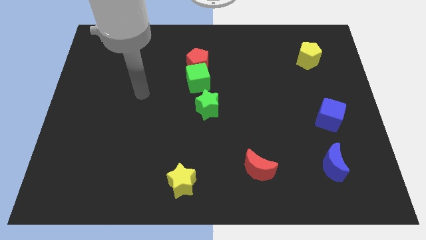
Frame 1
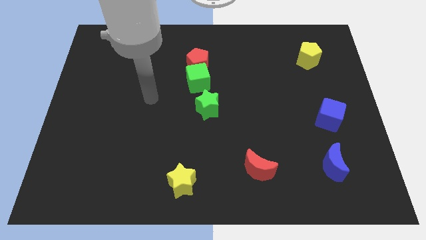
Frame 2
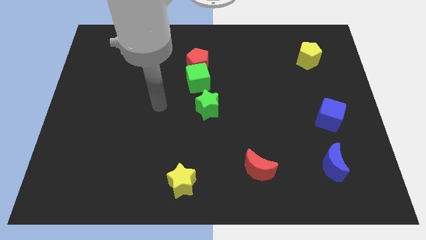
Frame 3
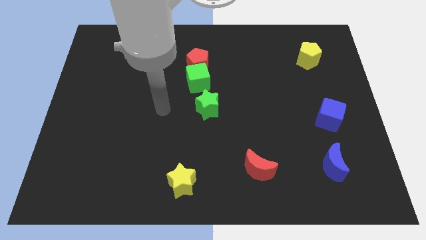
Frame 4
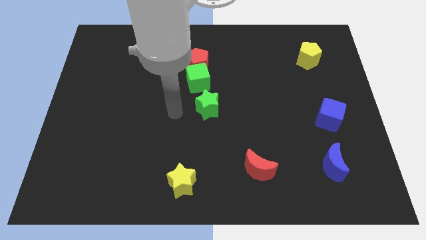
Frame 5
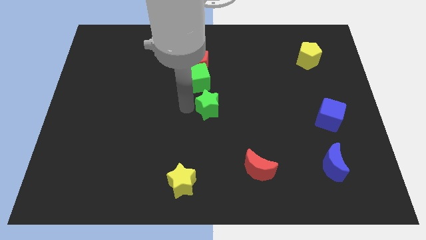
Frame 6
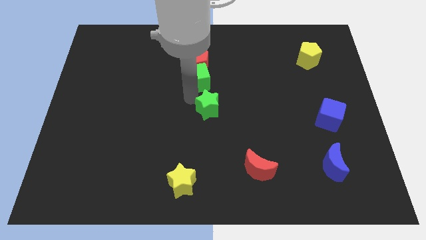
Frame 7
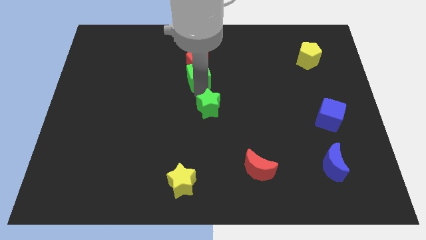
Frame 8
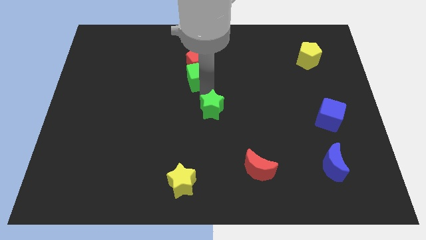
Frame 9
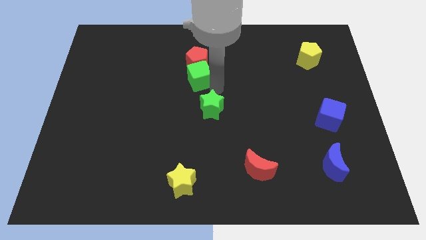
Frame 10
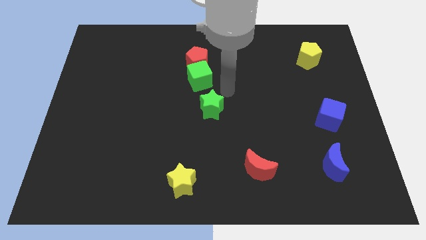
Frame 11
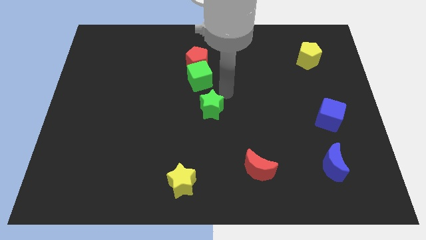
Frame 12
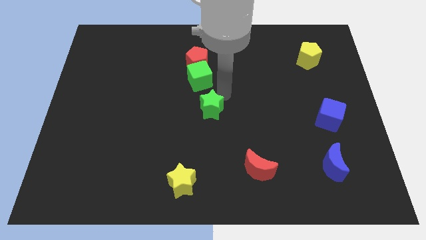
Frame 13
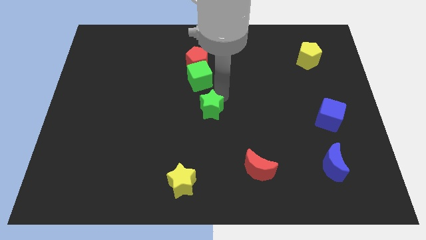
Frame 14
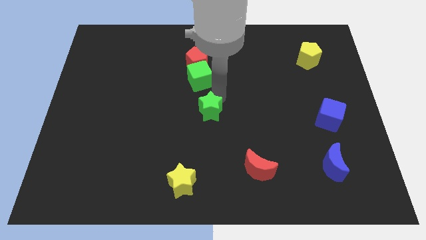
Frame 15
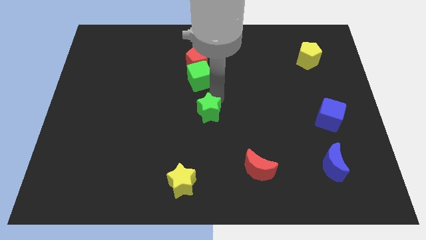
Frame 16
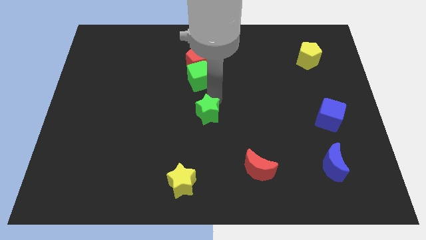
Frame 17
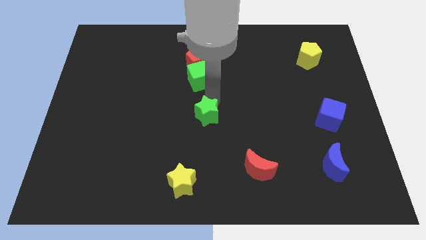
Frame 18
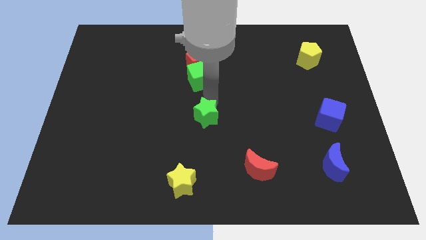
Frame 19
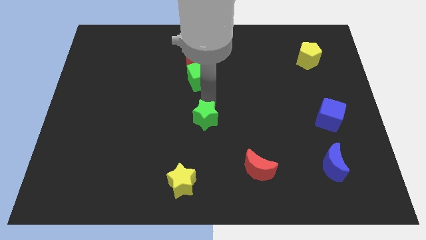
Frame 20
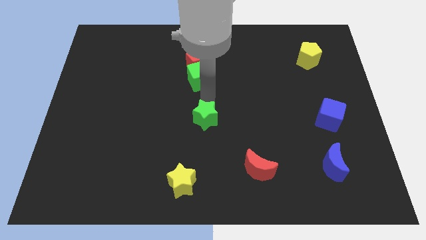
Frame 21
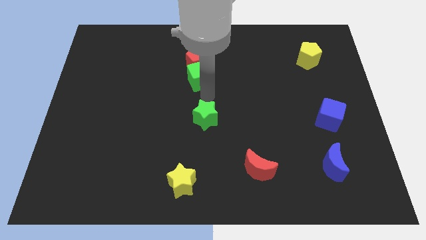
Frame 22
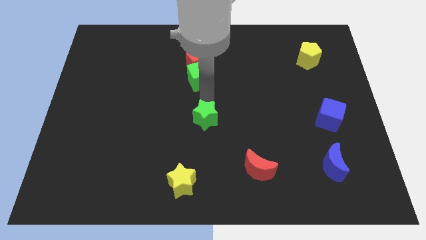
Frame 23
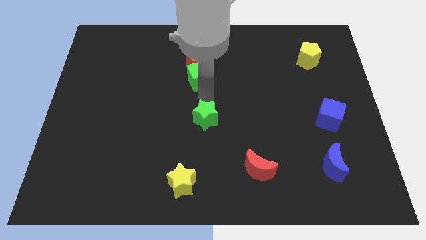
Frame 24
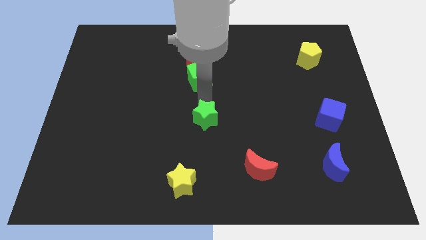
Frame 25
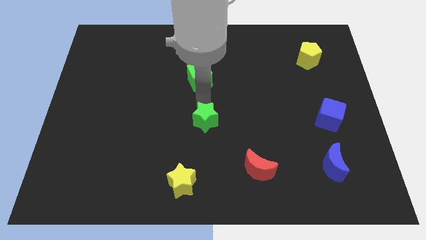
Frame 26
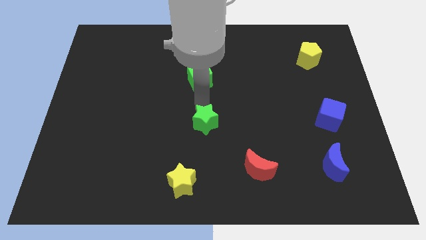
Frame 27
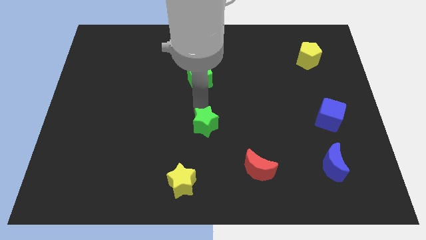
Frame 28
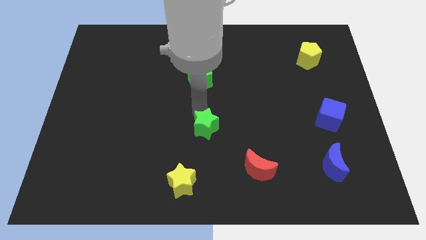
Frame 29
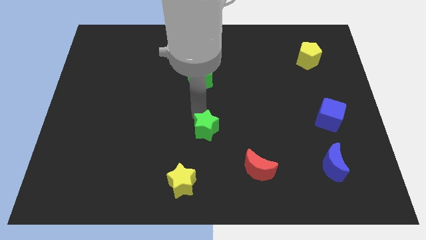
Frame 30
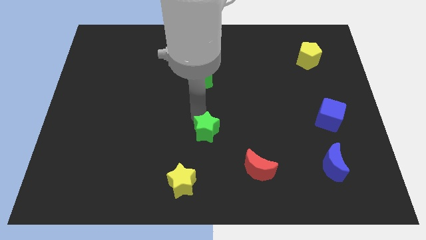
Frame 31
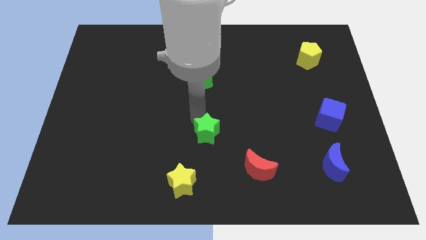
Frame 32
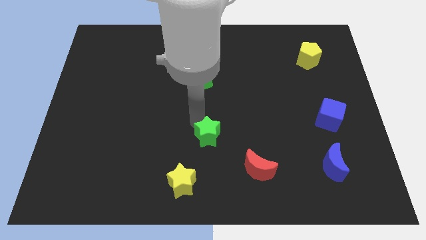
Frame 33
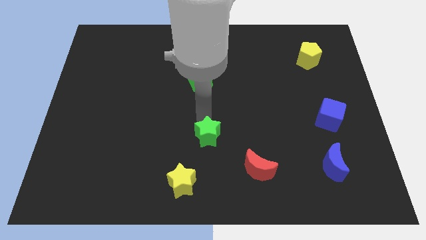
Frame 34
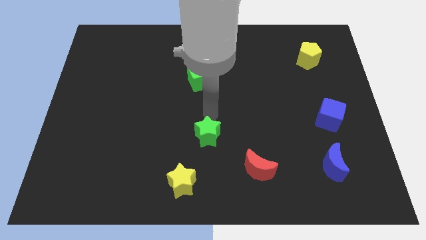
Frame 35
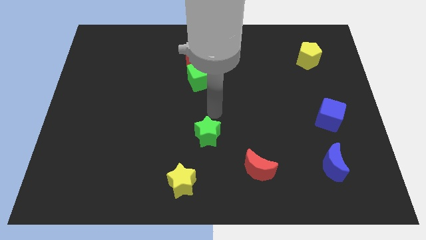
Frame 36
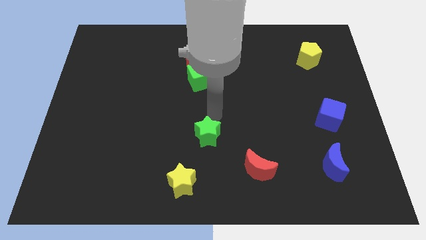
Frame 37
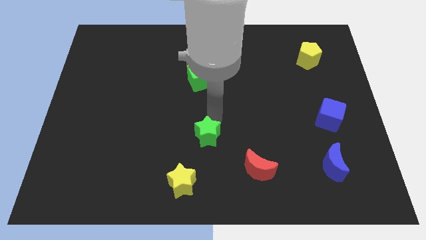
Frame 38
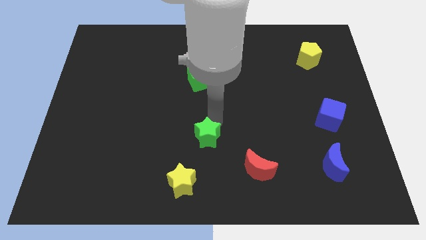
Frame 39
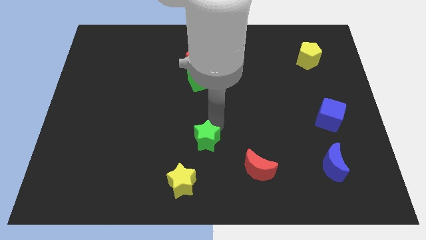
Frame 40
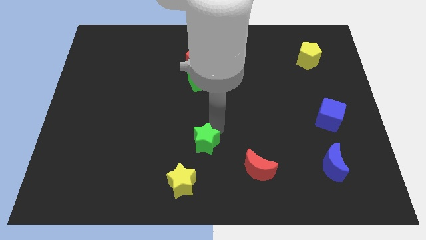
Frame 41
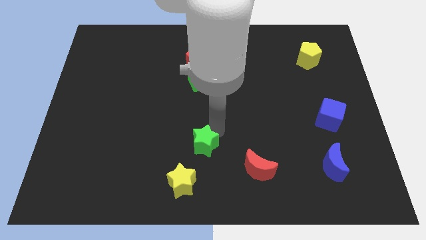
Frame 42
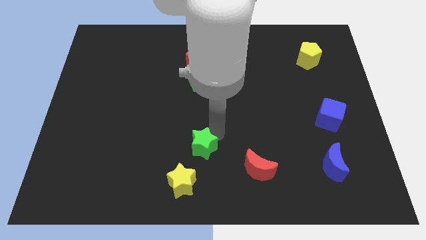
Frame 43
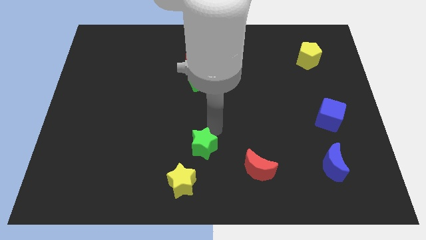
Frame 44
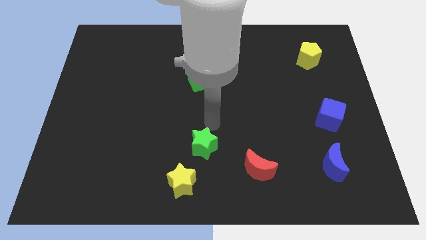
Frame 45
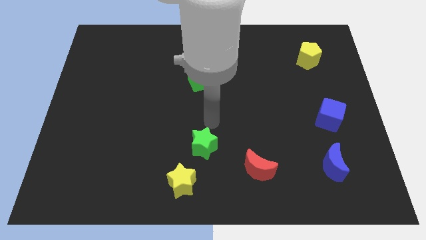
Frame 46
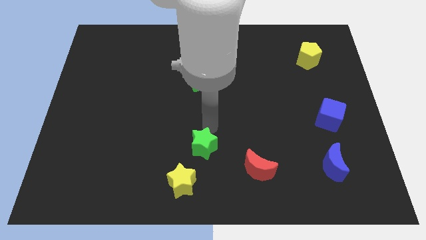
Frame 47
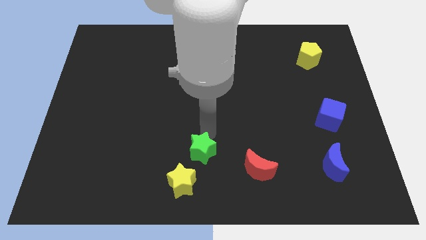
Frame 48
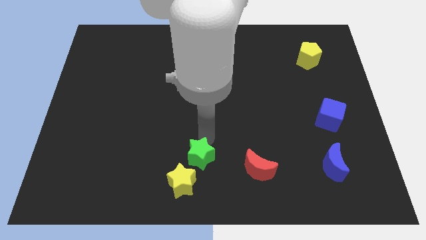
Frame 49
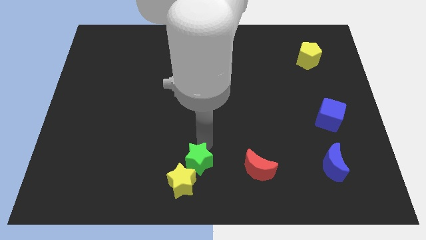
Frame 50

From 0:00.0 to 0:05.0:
push the green star close to the yellow star

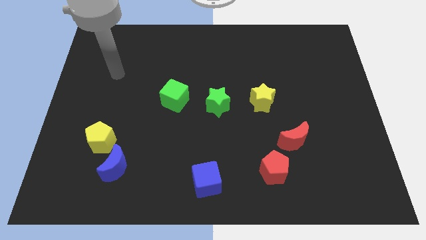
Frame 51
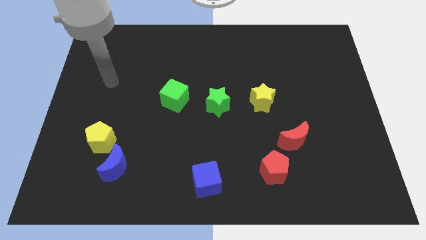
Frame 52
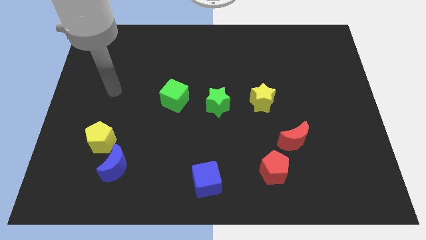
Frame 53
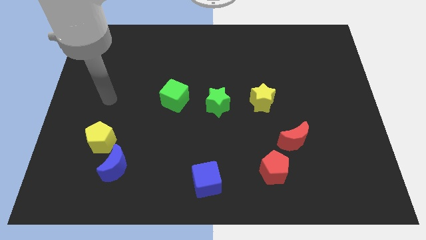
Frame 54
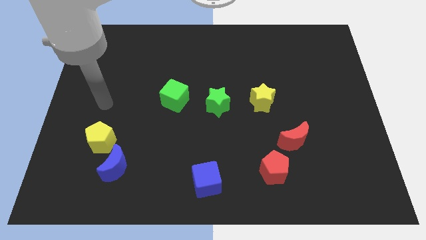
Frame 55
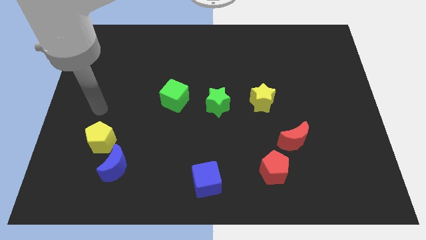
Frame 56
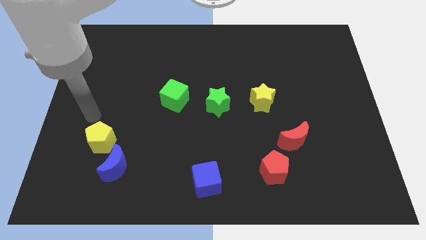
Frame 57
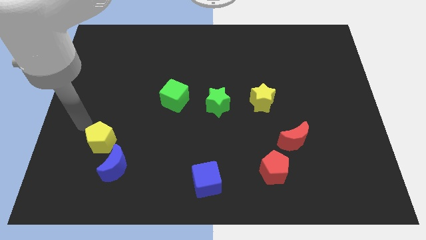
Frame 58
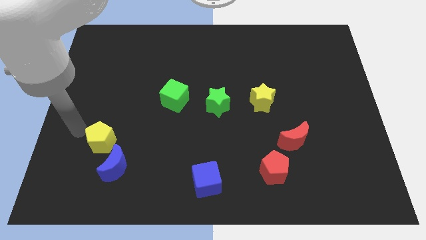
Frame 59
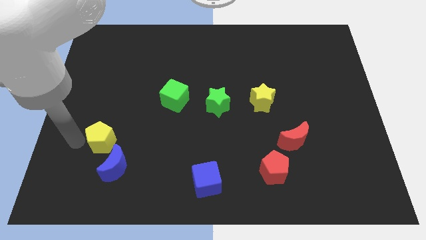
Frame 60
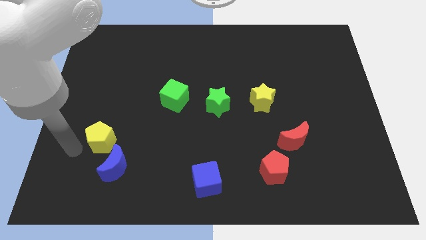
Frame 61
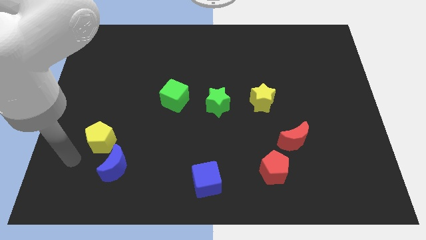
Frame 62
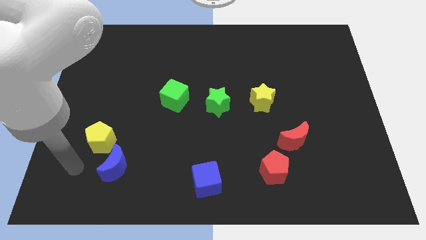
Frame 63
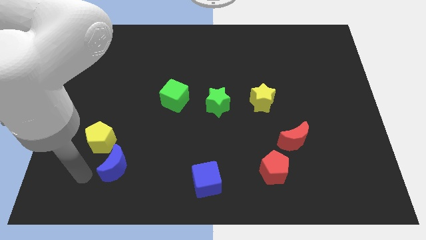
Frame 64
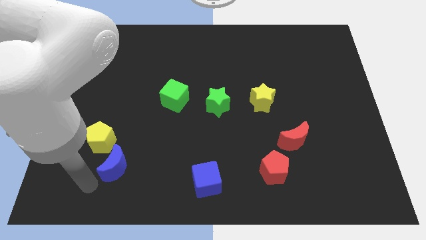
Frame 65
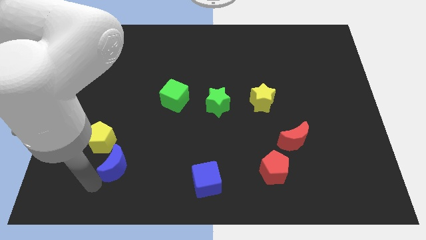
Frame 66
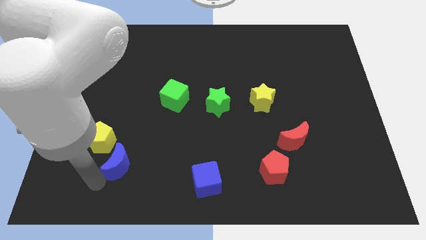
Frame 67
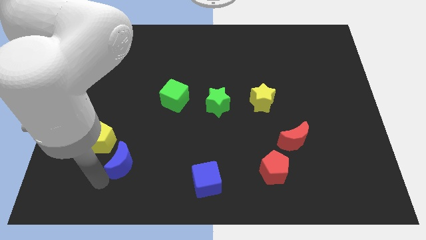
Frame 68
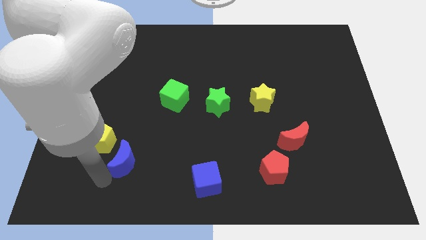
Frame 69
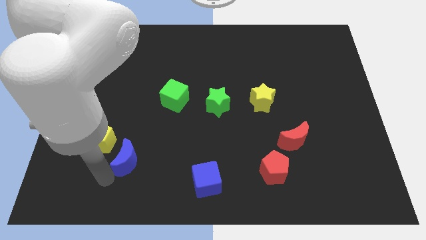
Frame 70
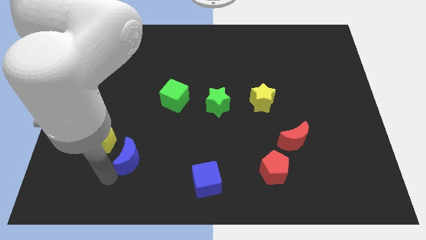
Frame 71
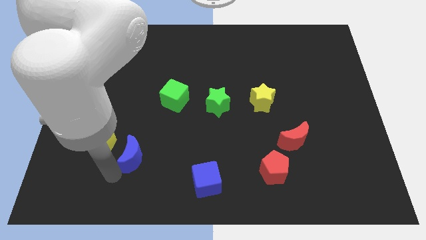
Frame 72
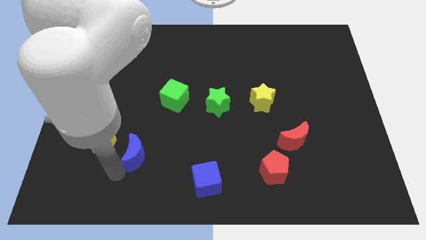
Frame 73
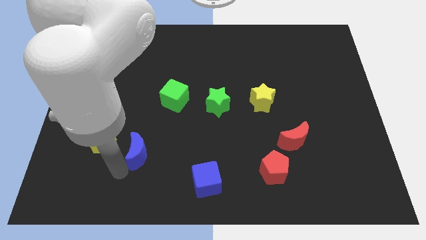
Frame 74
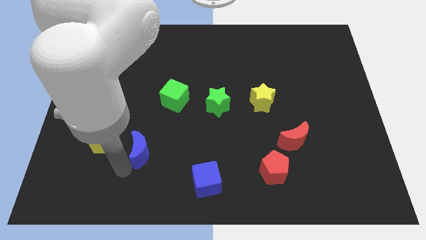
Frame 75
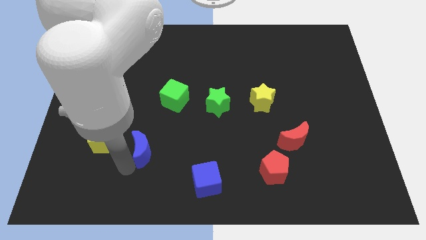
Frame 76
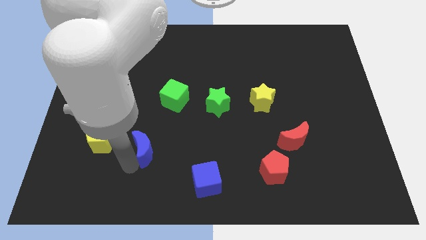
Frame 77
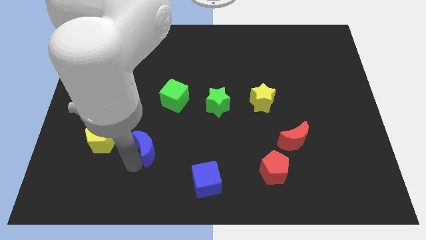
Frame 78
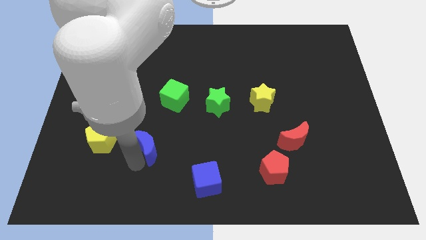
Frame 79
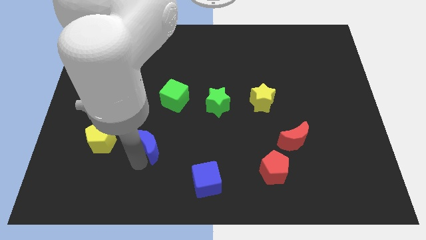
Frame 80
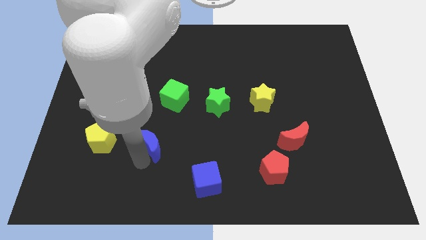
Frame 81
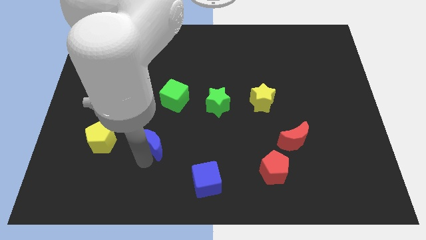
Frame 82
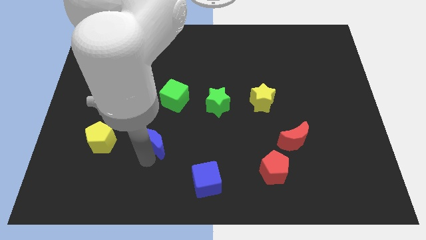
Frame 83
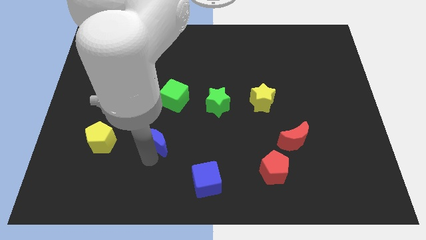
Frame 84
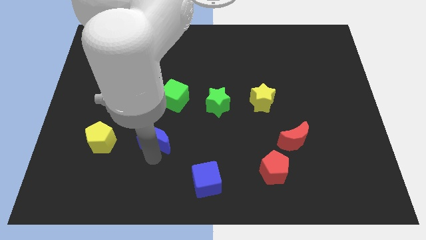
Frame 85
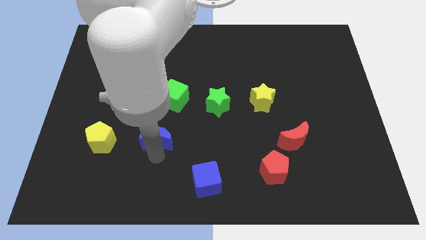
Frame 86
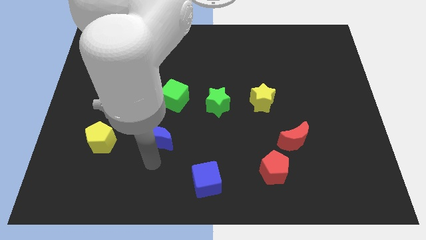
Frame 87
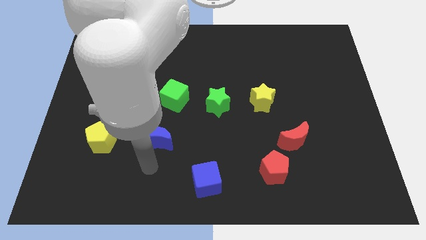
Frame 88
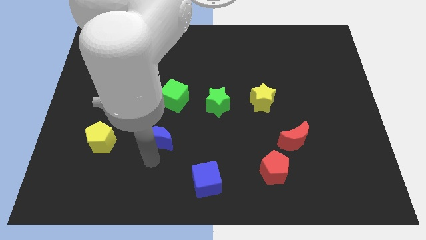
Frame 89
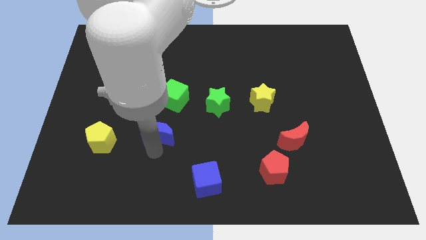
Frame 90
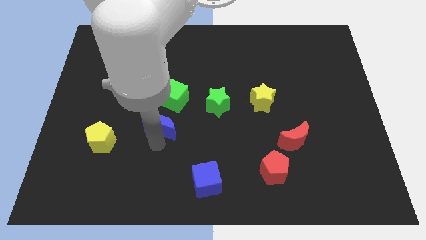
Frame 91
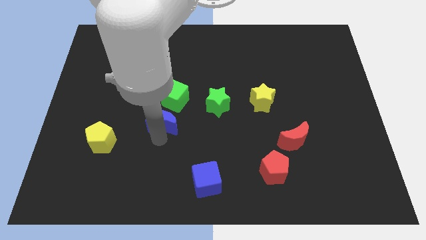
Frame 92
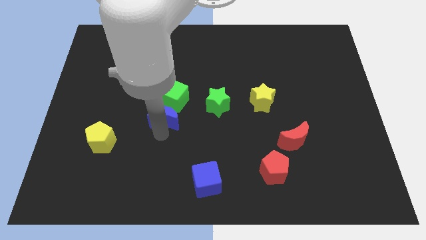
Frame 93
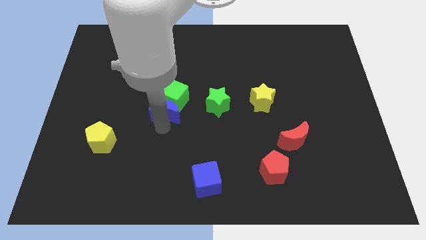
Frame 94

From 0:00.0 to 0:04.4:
push the blue moon to the green cube
